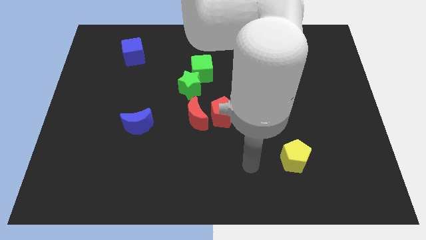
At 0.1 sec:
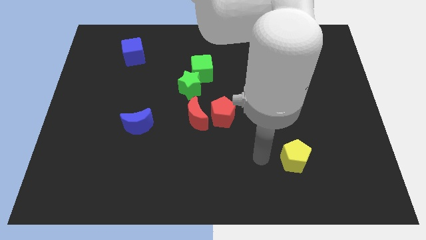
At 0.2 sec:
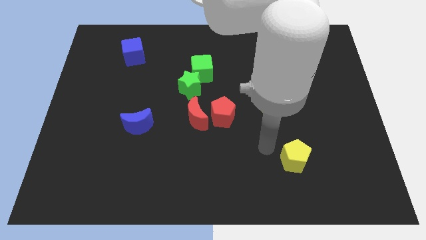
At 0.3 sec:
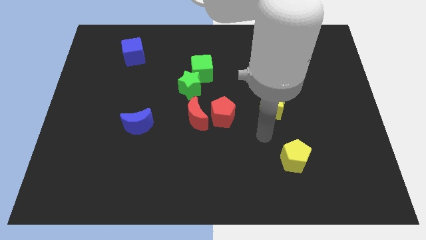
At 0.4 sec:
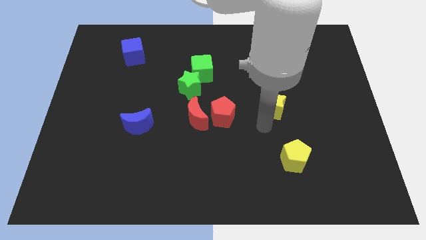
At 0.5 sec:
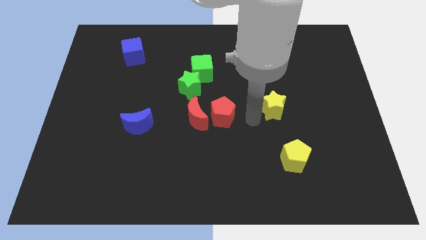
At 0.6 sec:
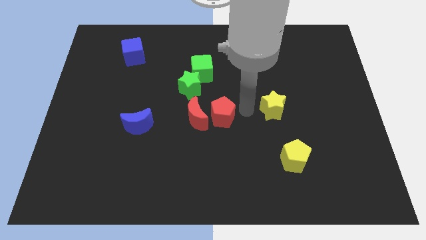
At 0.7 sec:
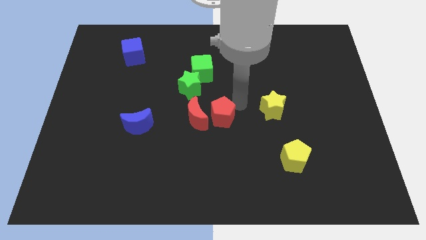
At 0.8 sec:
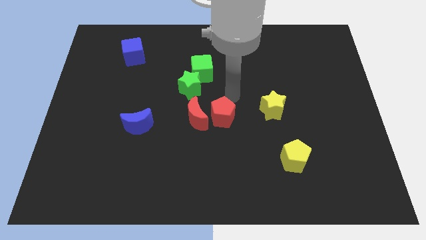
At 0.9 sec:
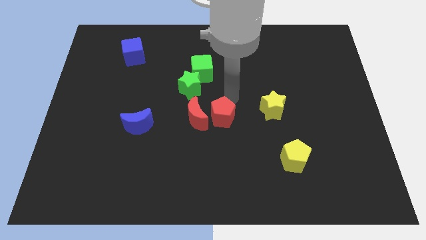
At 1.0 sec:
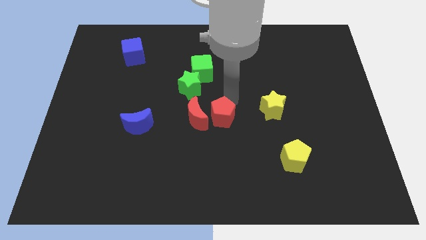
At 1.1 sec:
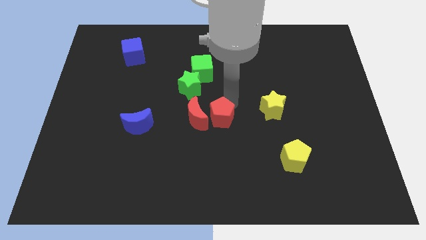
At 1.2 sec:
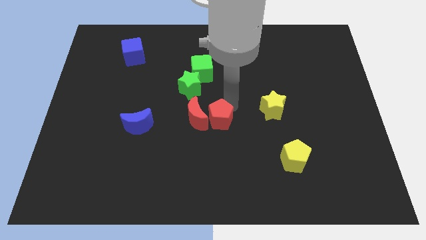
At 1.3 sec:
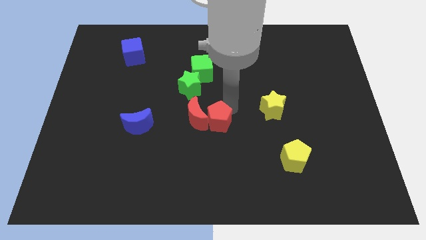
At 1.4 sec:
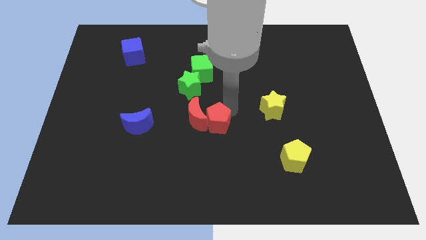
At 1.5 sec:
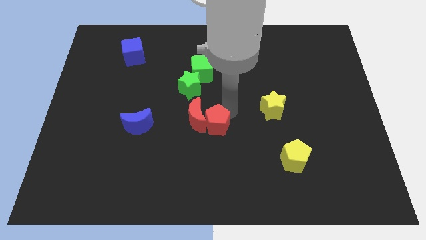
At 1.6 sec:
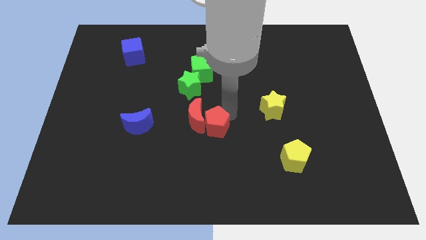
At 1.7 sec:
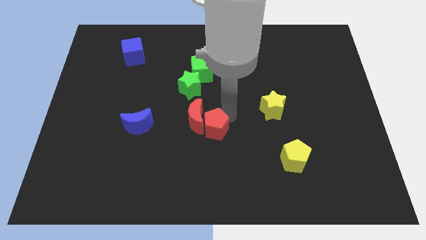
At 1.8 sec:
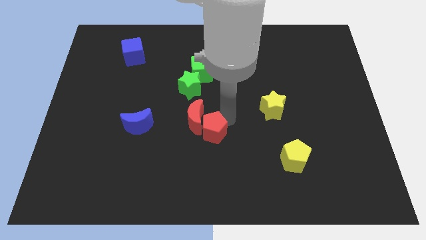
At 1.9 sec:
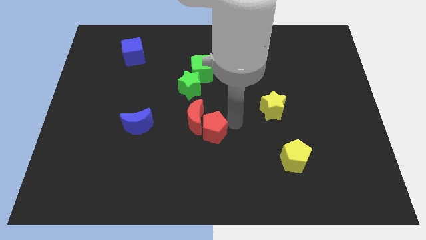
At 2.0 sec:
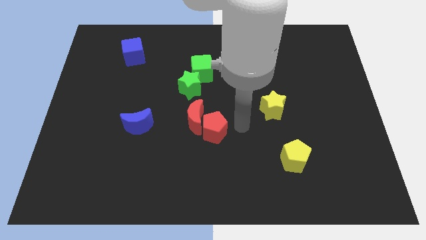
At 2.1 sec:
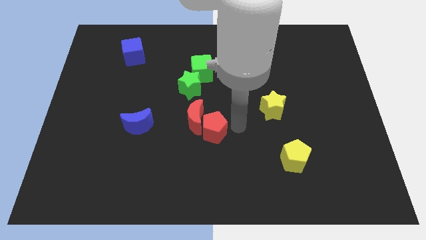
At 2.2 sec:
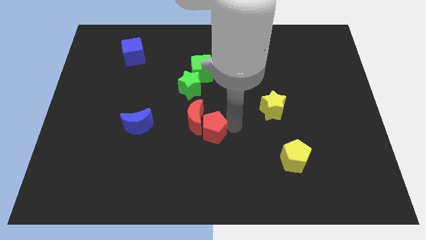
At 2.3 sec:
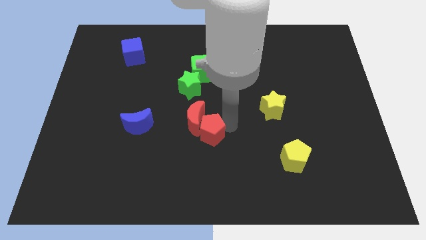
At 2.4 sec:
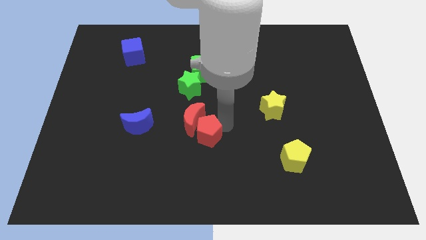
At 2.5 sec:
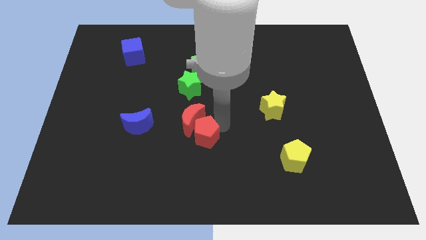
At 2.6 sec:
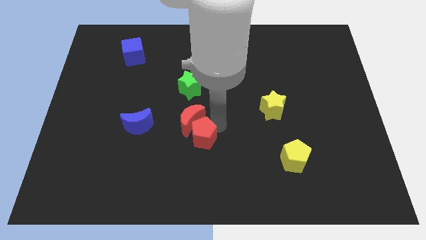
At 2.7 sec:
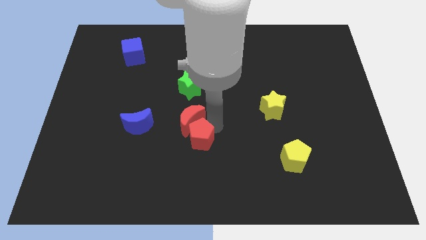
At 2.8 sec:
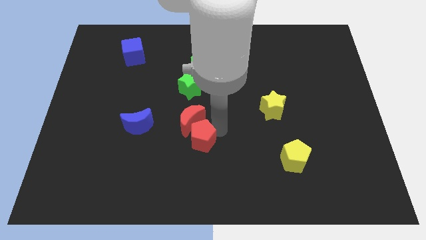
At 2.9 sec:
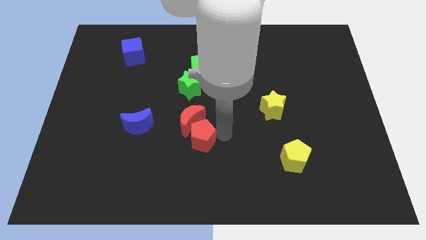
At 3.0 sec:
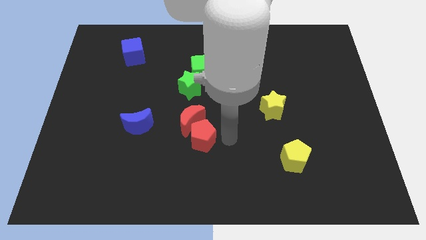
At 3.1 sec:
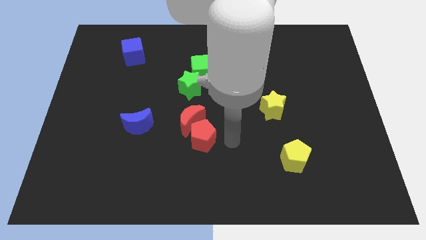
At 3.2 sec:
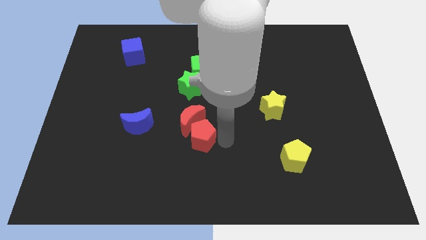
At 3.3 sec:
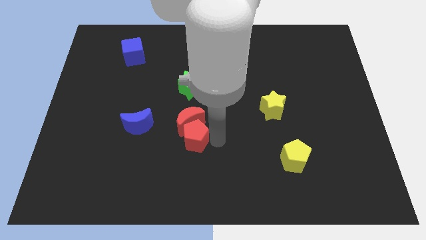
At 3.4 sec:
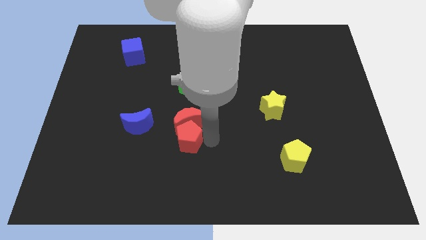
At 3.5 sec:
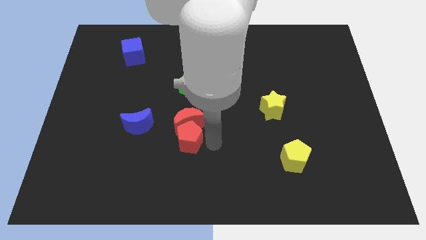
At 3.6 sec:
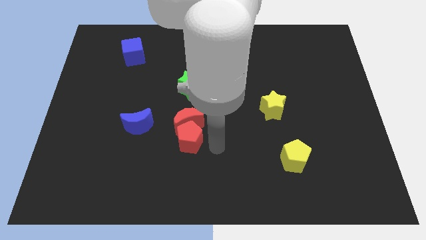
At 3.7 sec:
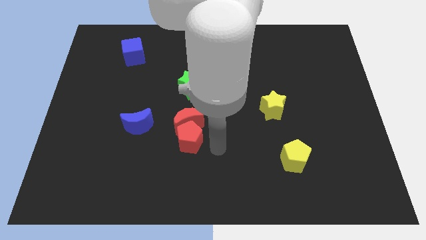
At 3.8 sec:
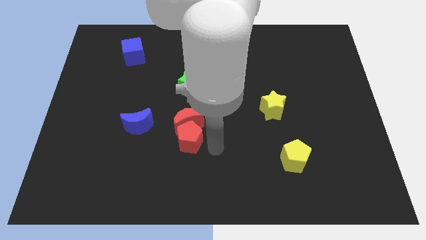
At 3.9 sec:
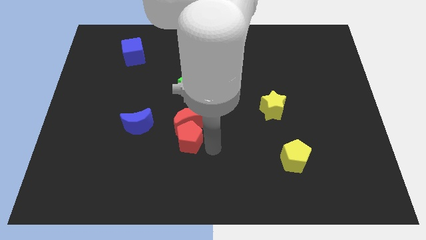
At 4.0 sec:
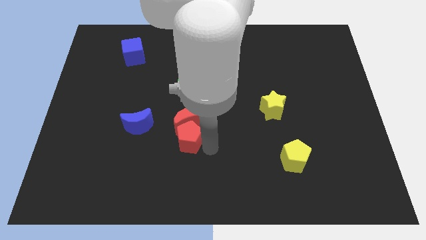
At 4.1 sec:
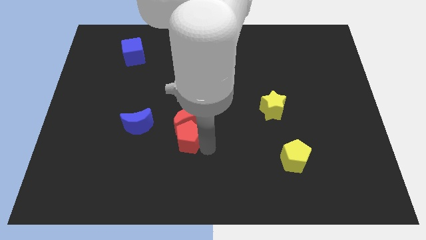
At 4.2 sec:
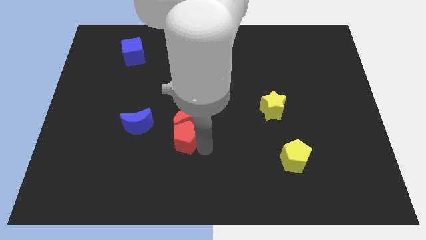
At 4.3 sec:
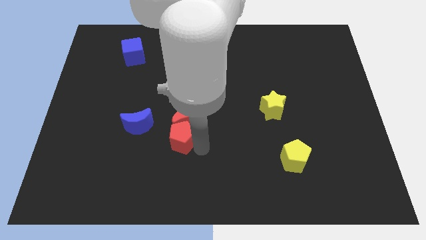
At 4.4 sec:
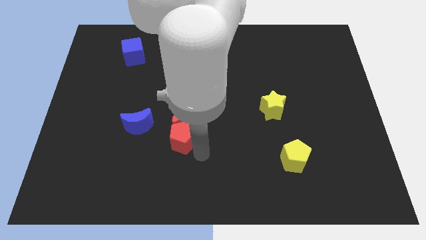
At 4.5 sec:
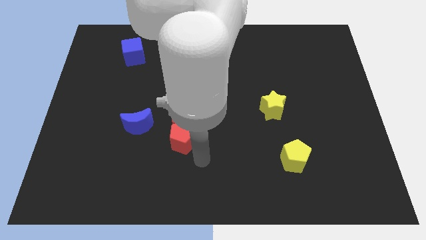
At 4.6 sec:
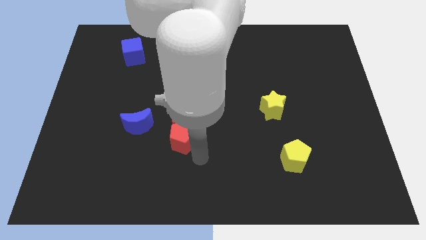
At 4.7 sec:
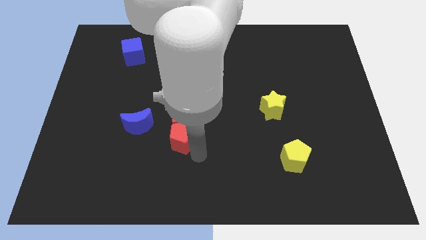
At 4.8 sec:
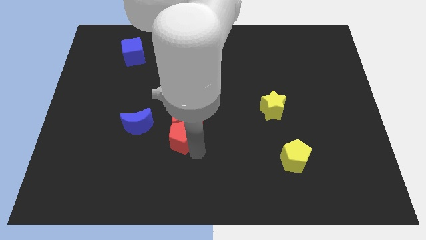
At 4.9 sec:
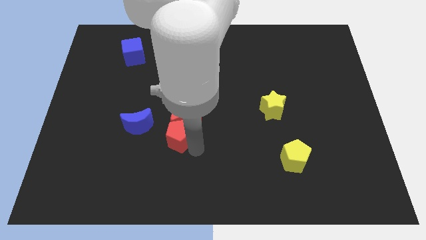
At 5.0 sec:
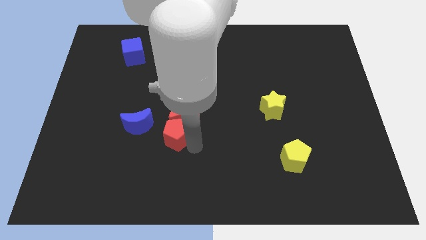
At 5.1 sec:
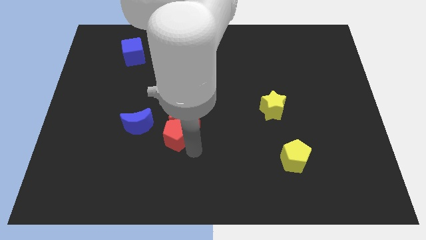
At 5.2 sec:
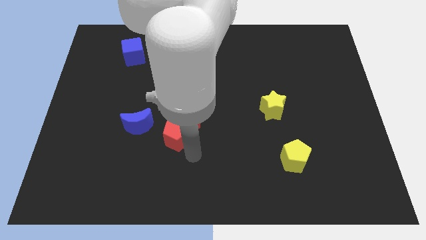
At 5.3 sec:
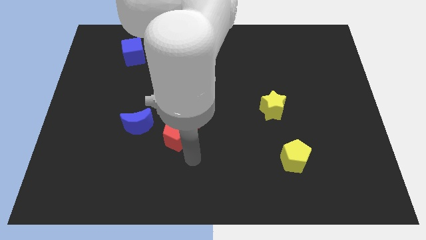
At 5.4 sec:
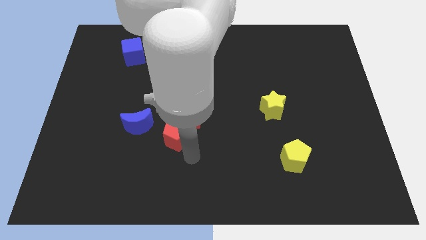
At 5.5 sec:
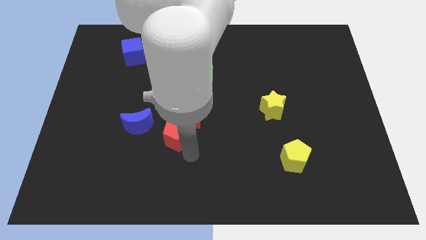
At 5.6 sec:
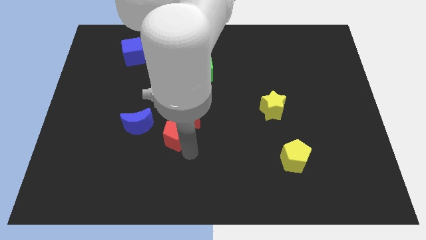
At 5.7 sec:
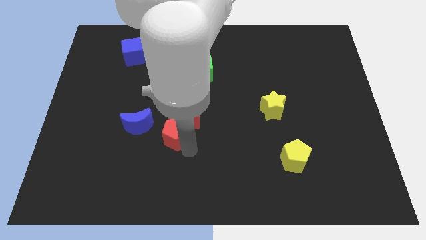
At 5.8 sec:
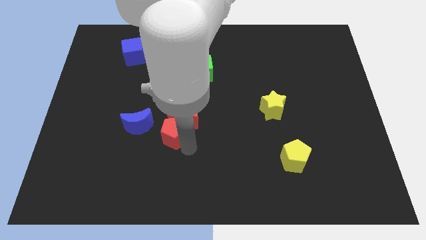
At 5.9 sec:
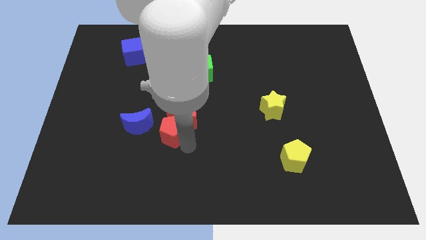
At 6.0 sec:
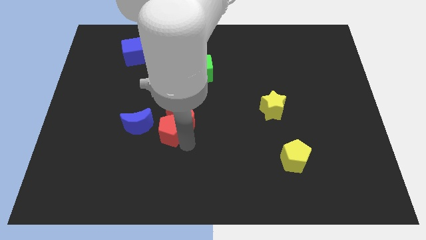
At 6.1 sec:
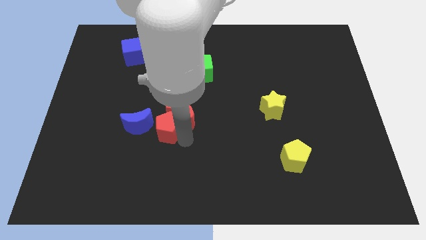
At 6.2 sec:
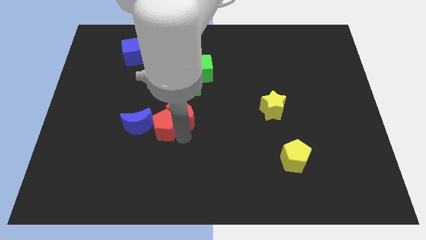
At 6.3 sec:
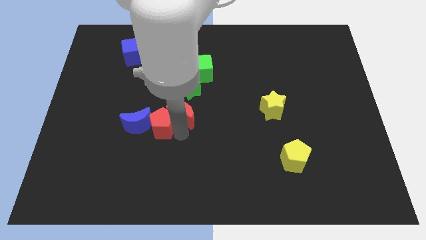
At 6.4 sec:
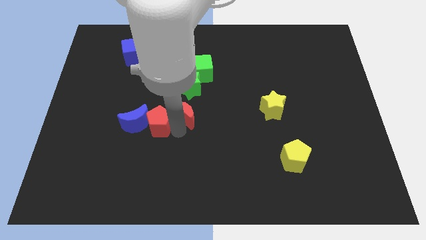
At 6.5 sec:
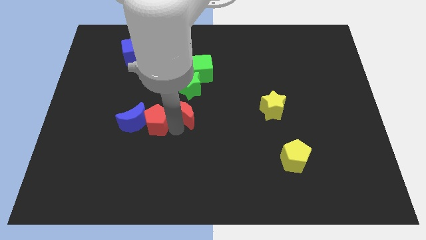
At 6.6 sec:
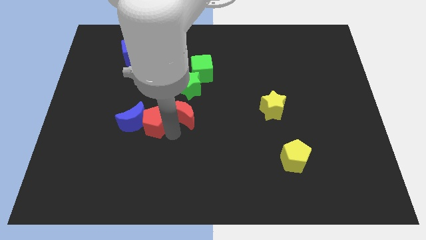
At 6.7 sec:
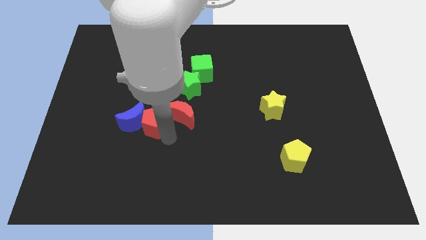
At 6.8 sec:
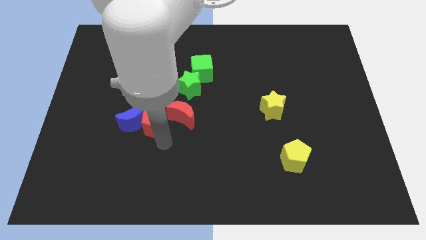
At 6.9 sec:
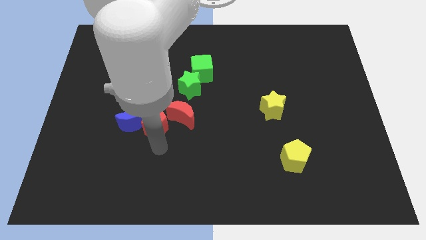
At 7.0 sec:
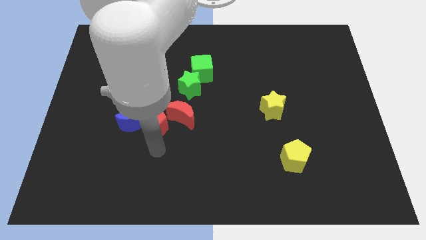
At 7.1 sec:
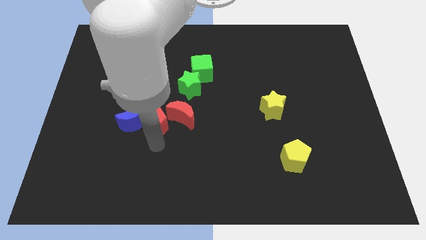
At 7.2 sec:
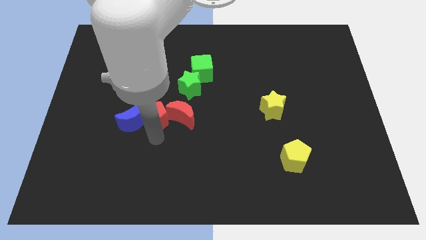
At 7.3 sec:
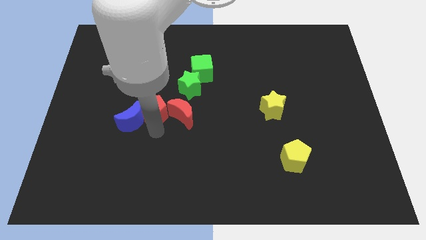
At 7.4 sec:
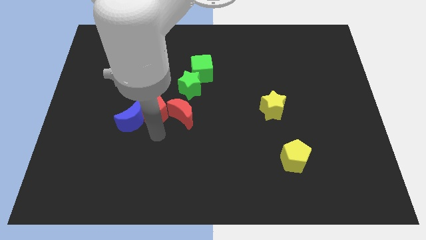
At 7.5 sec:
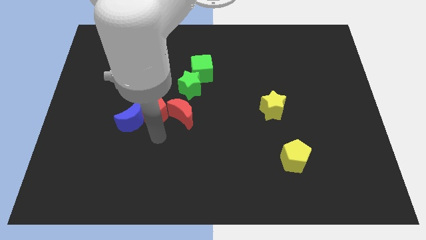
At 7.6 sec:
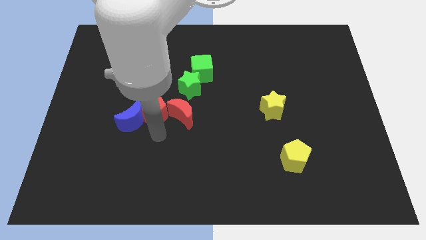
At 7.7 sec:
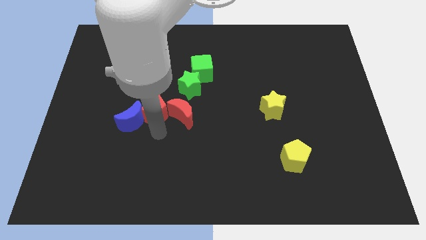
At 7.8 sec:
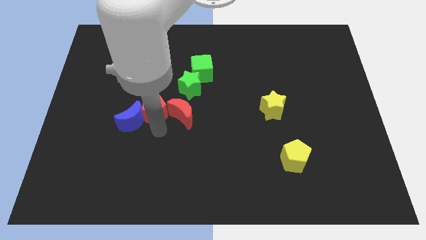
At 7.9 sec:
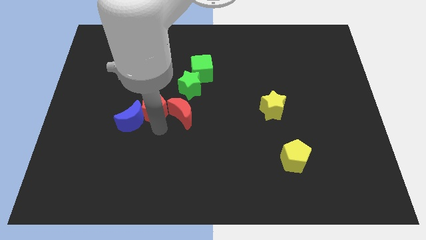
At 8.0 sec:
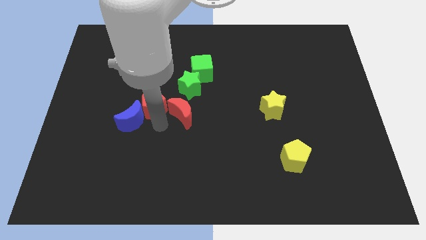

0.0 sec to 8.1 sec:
put the red pentagon above the blue moon
